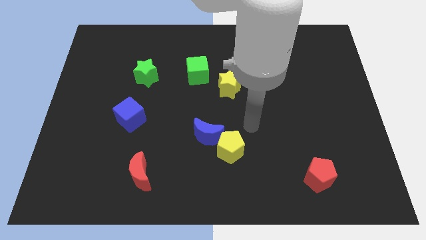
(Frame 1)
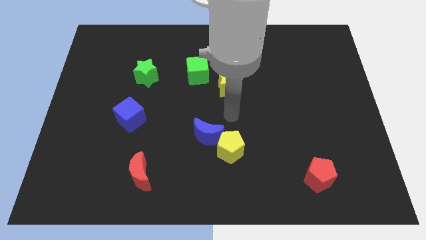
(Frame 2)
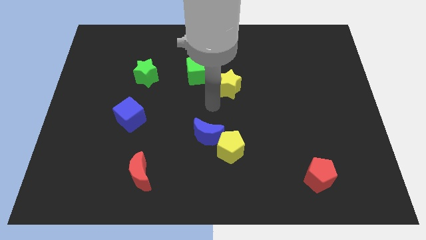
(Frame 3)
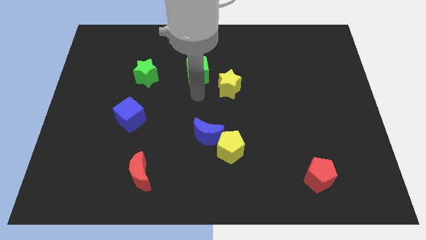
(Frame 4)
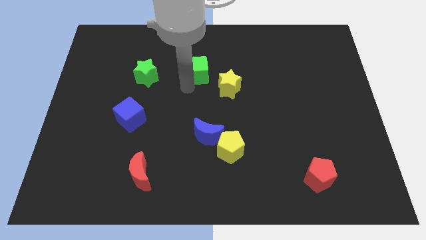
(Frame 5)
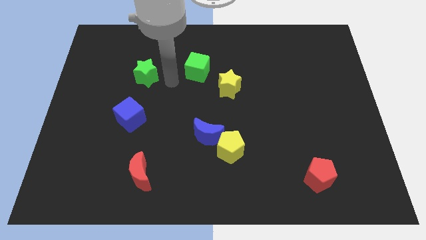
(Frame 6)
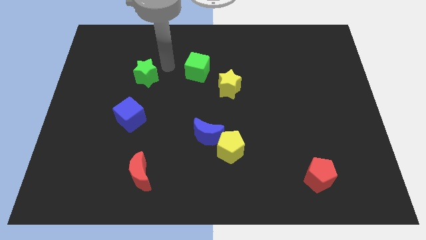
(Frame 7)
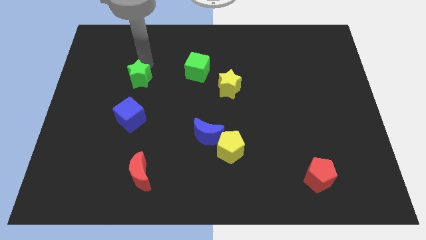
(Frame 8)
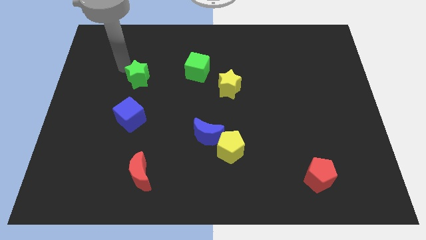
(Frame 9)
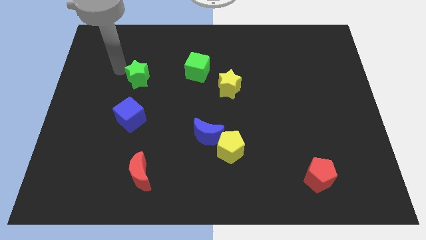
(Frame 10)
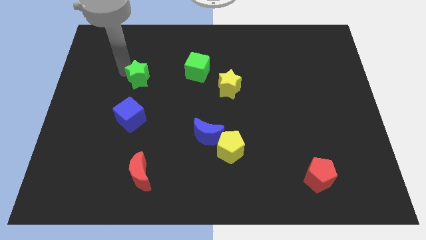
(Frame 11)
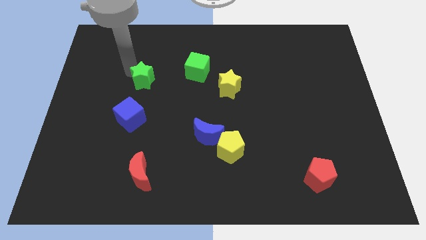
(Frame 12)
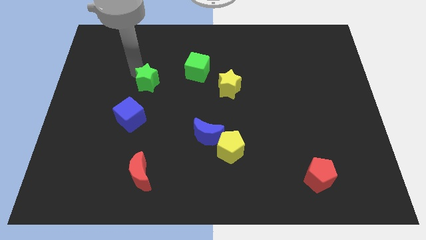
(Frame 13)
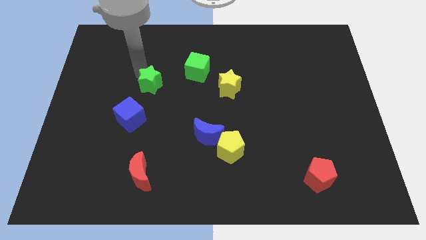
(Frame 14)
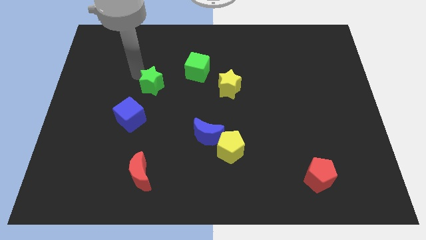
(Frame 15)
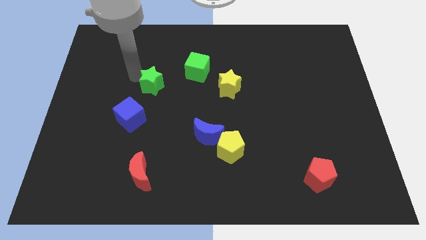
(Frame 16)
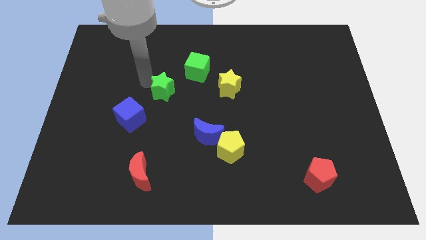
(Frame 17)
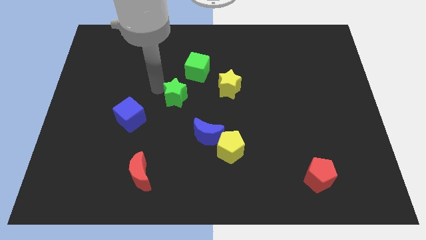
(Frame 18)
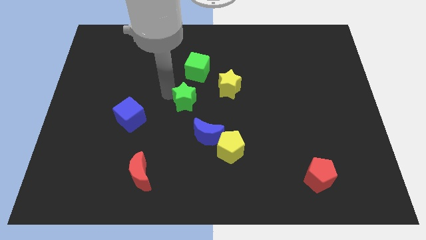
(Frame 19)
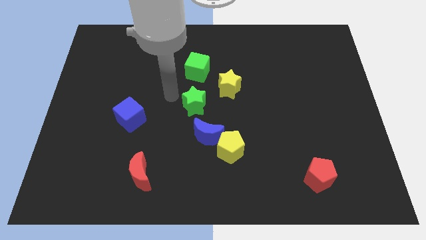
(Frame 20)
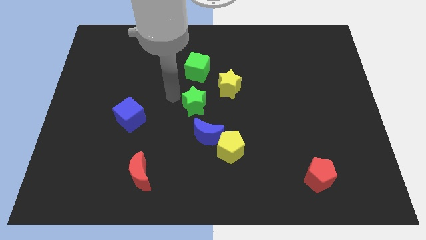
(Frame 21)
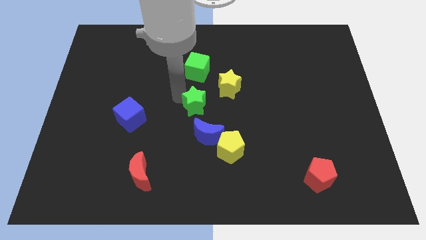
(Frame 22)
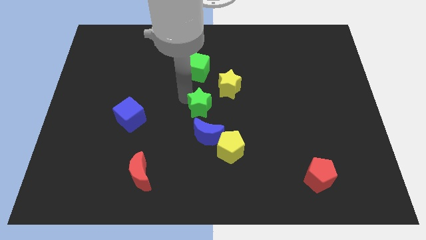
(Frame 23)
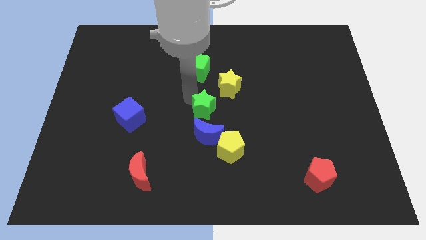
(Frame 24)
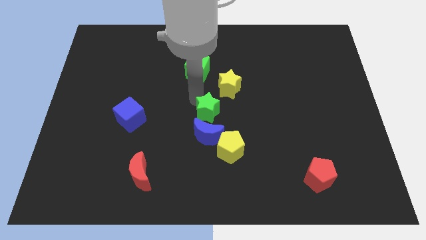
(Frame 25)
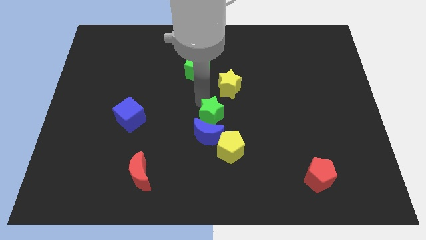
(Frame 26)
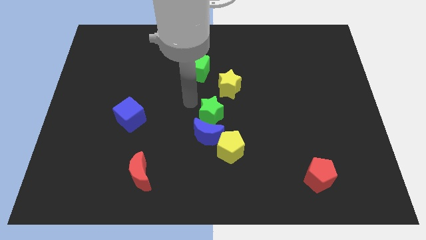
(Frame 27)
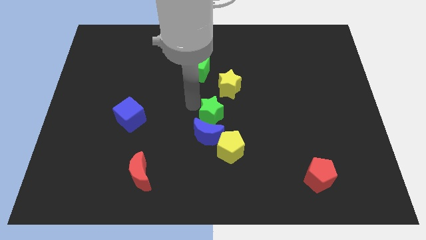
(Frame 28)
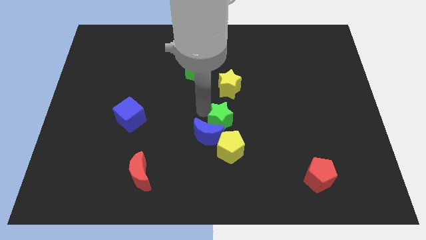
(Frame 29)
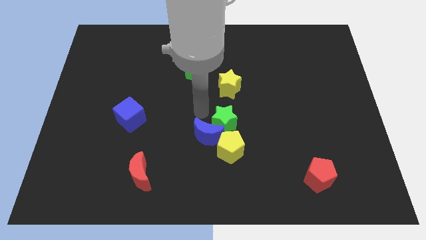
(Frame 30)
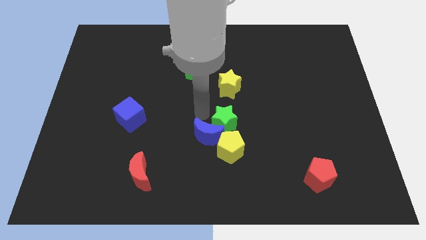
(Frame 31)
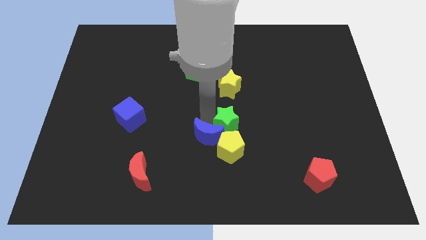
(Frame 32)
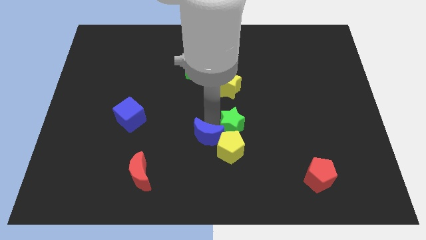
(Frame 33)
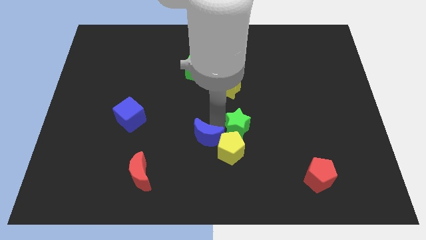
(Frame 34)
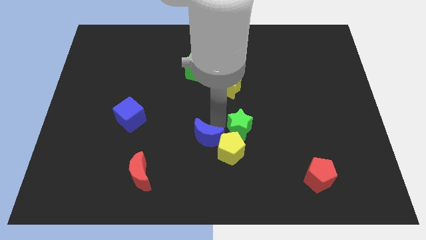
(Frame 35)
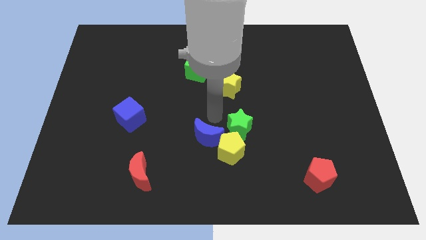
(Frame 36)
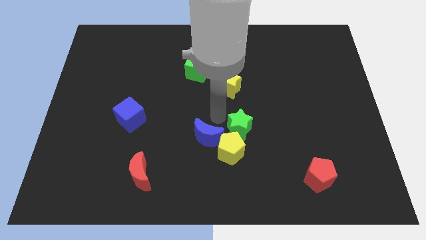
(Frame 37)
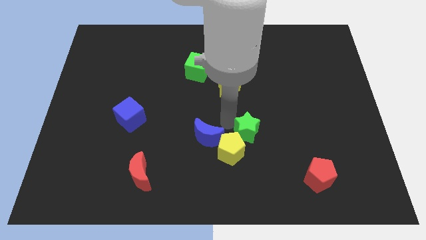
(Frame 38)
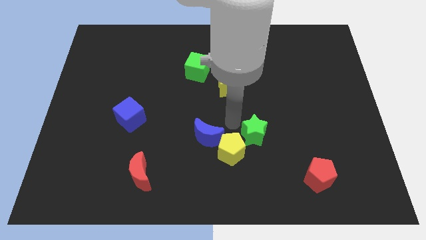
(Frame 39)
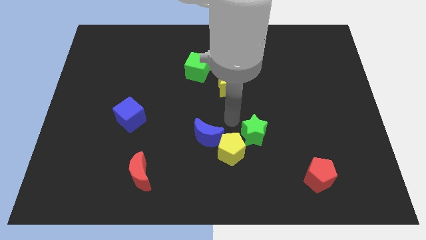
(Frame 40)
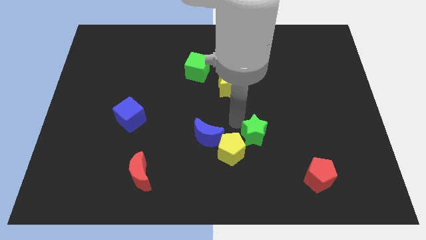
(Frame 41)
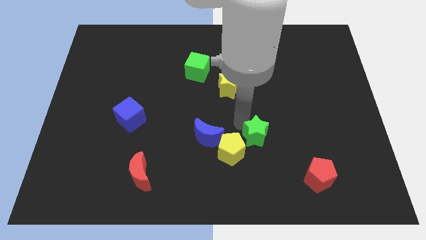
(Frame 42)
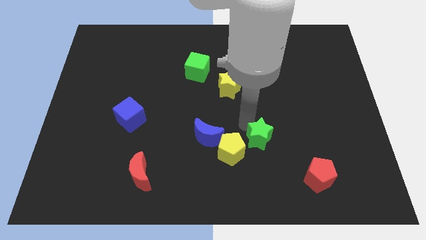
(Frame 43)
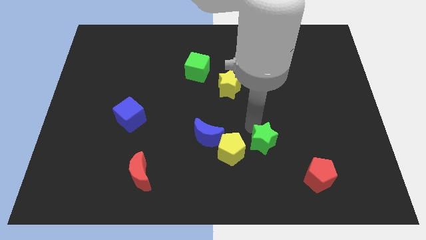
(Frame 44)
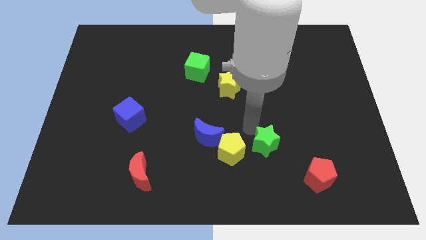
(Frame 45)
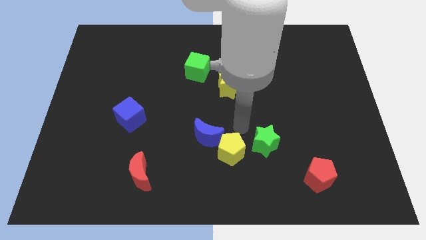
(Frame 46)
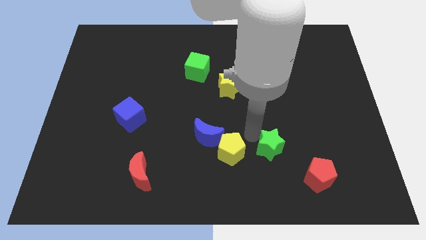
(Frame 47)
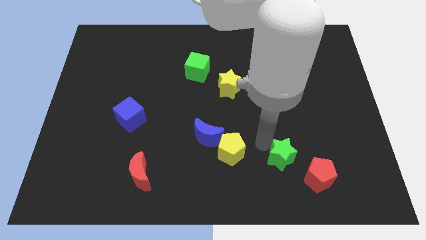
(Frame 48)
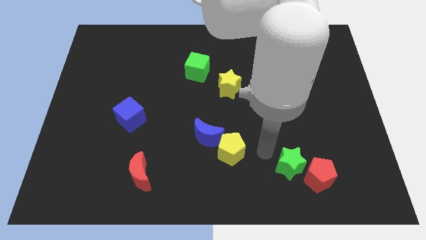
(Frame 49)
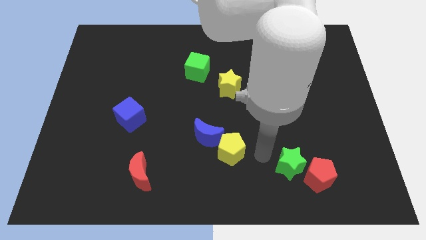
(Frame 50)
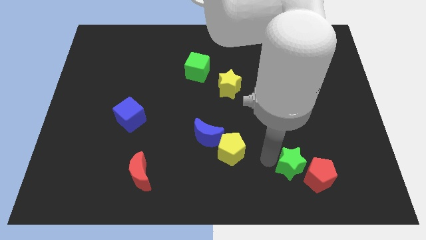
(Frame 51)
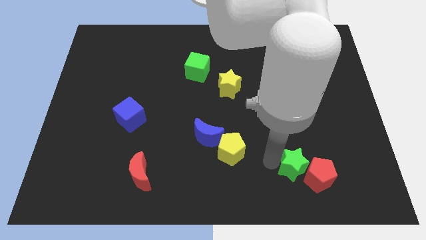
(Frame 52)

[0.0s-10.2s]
push the green star to the red pentagon
